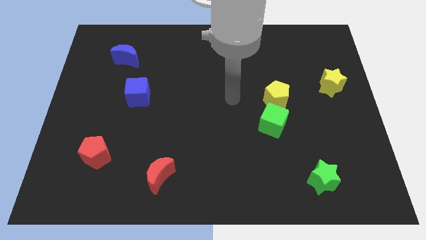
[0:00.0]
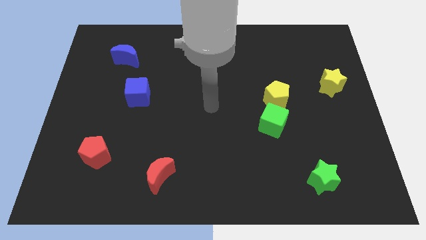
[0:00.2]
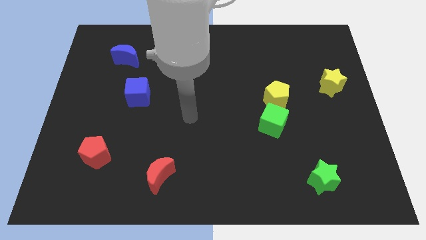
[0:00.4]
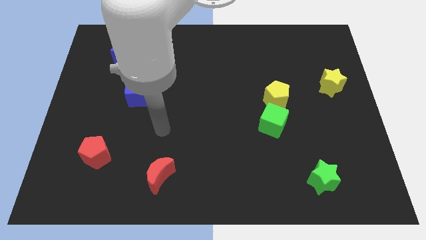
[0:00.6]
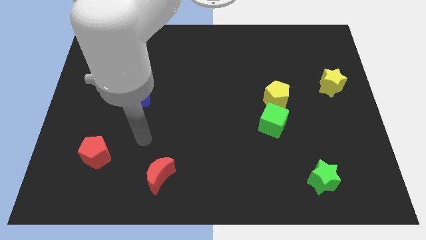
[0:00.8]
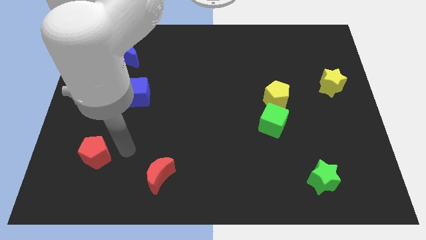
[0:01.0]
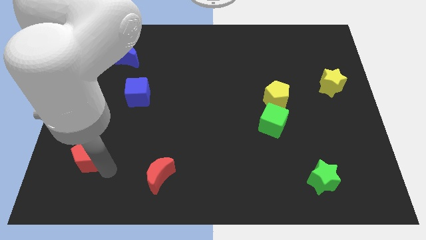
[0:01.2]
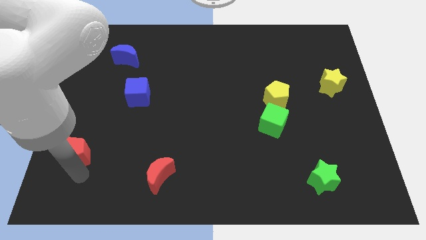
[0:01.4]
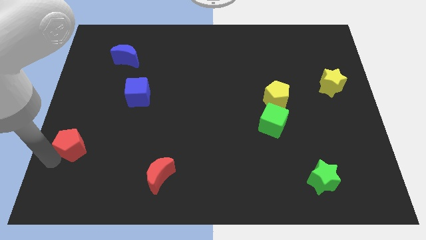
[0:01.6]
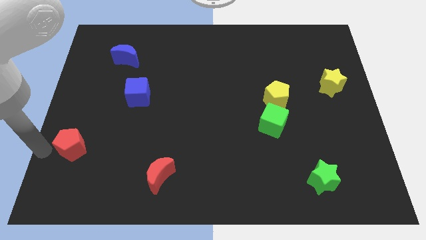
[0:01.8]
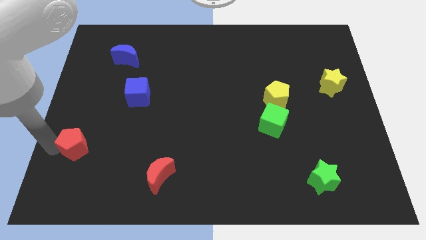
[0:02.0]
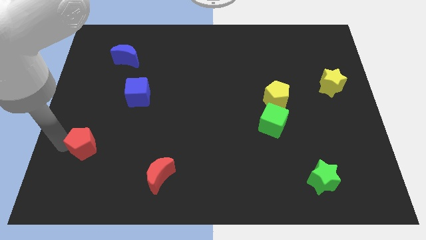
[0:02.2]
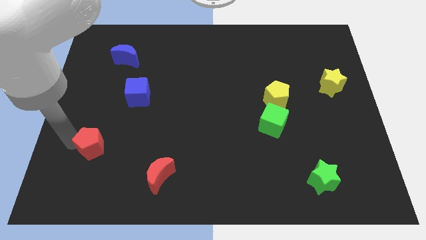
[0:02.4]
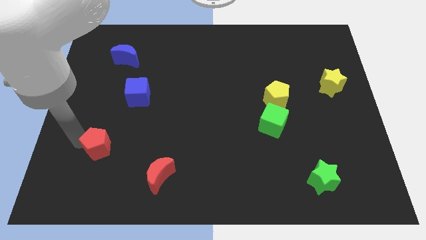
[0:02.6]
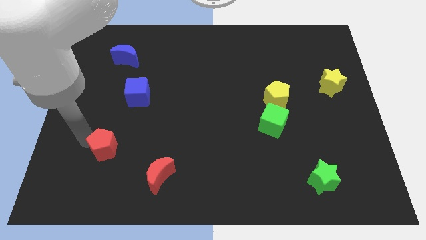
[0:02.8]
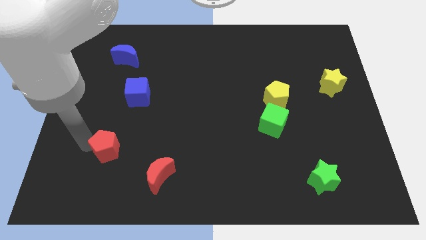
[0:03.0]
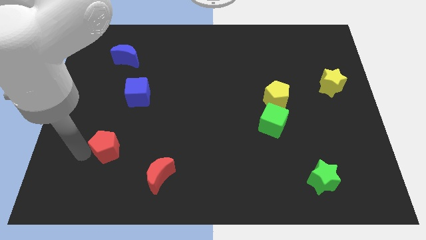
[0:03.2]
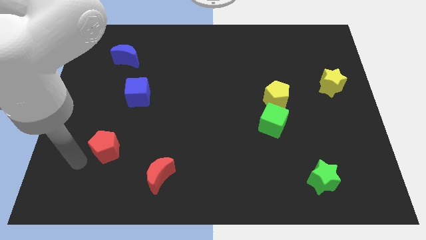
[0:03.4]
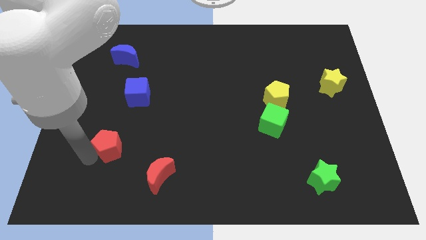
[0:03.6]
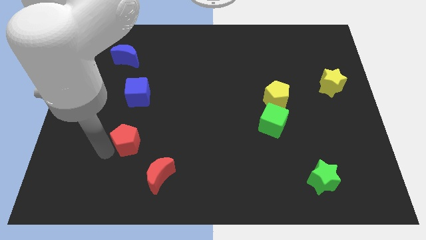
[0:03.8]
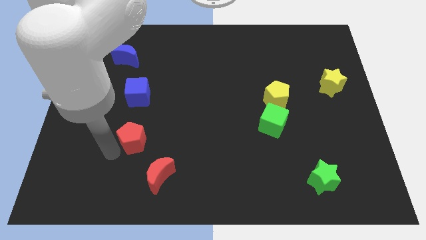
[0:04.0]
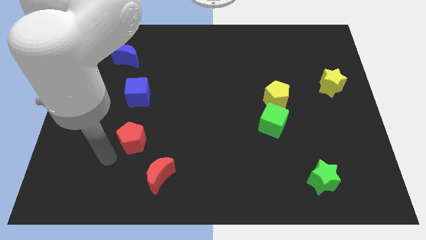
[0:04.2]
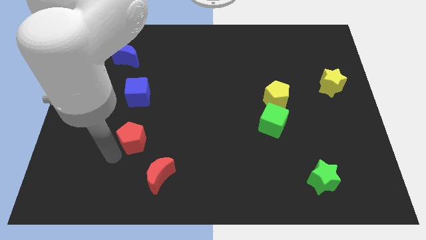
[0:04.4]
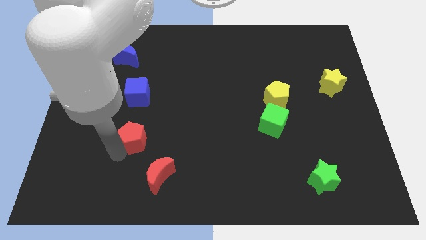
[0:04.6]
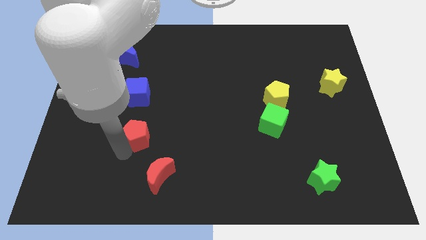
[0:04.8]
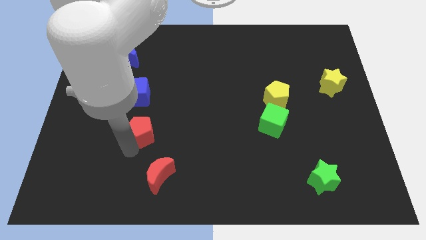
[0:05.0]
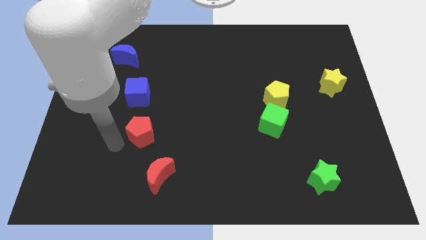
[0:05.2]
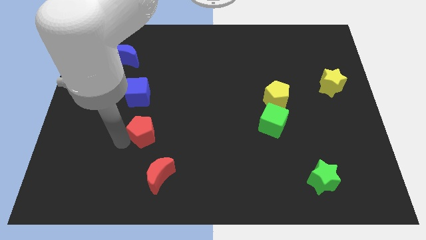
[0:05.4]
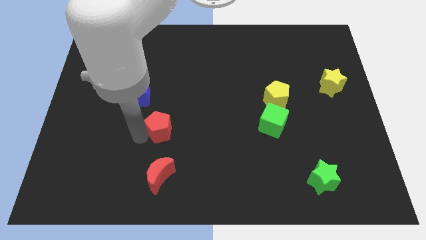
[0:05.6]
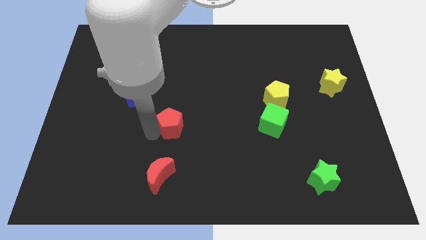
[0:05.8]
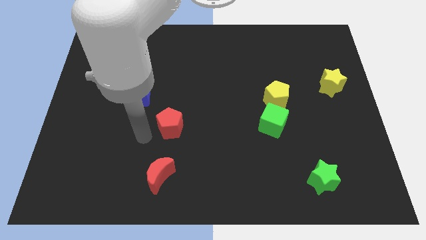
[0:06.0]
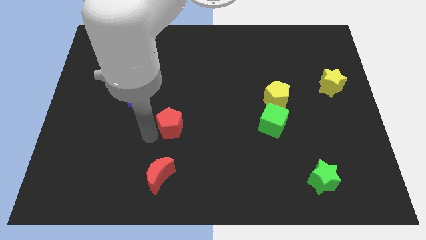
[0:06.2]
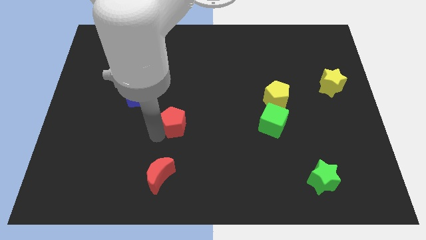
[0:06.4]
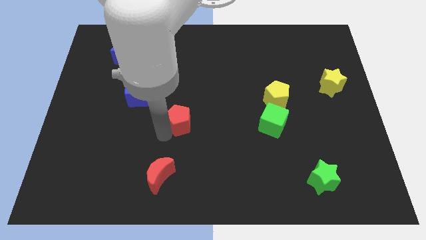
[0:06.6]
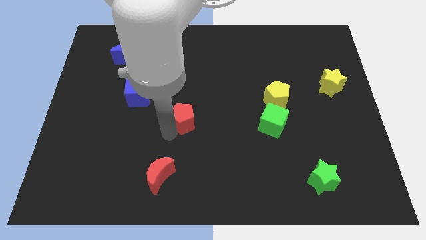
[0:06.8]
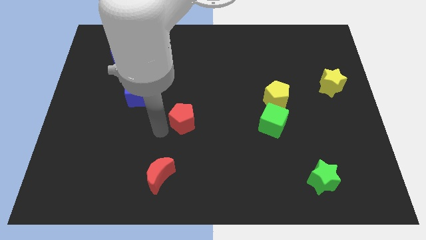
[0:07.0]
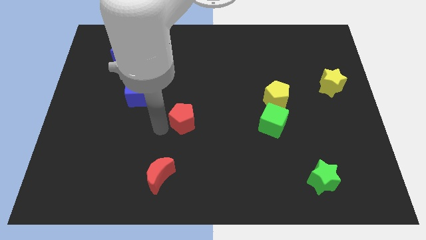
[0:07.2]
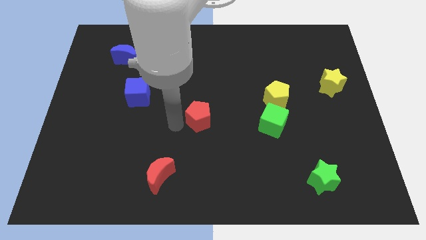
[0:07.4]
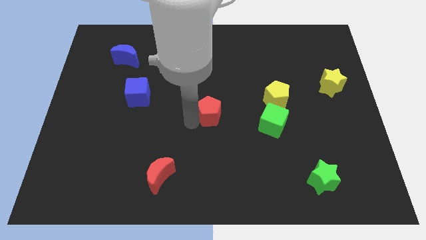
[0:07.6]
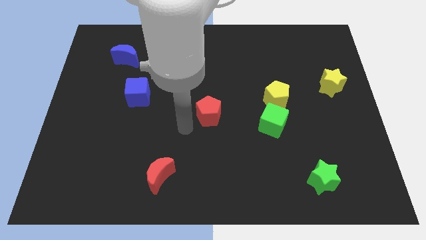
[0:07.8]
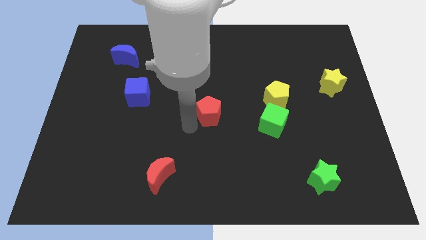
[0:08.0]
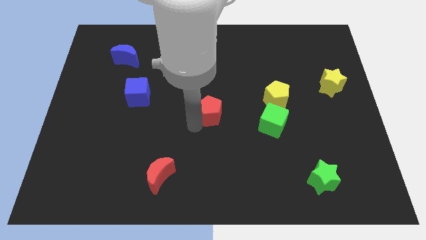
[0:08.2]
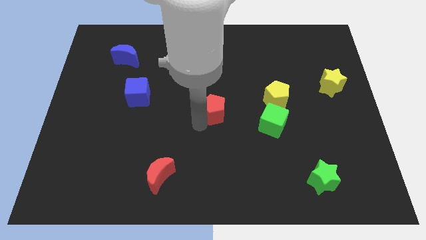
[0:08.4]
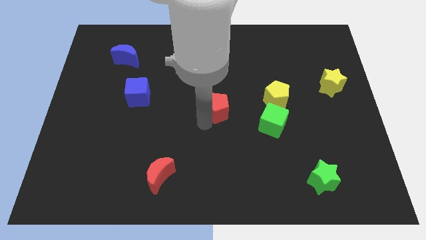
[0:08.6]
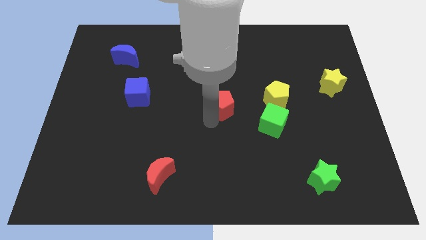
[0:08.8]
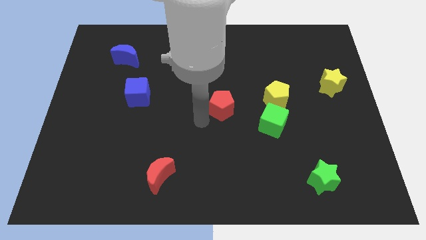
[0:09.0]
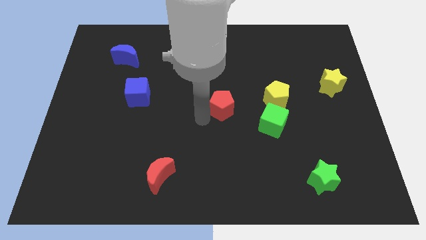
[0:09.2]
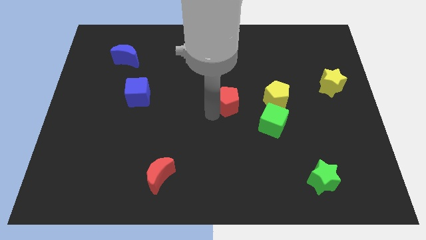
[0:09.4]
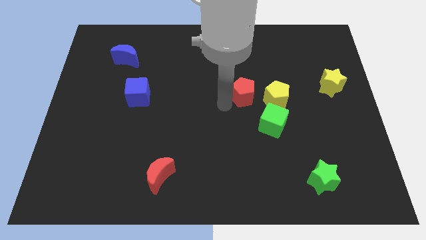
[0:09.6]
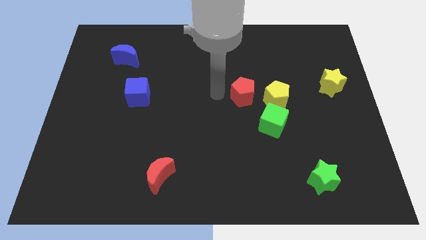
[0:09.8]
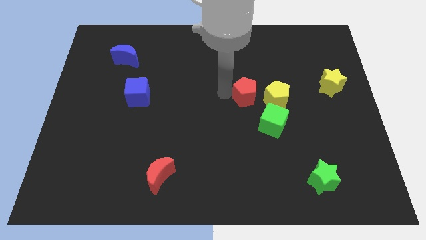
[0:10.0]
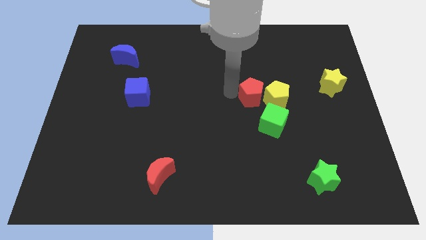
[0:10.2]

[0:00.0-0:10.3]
slide the red pentagon next to the yellow pentagon

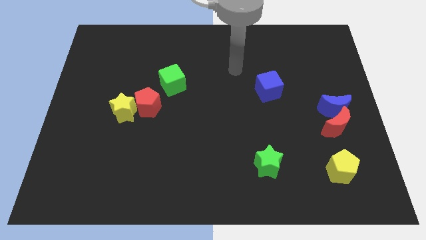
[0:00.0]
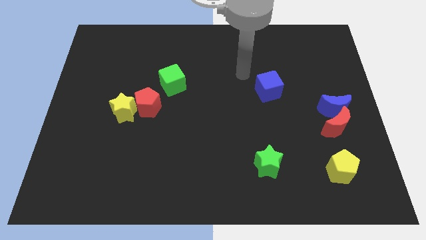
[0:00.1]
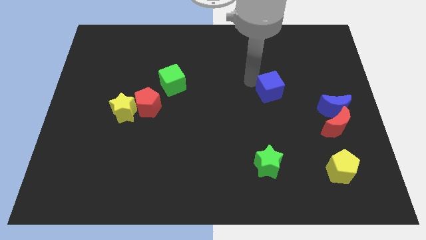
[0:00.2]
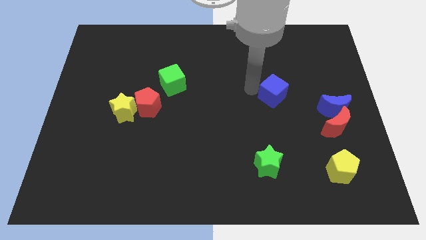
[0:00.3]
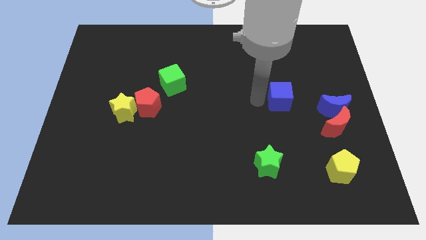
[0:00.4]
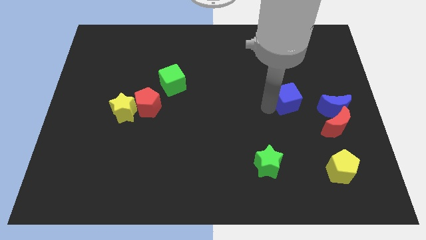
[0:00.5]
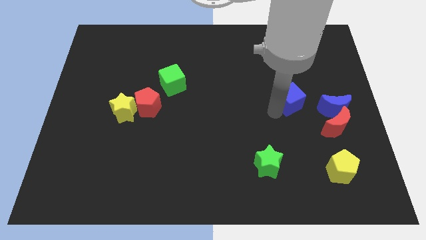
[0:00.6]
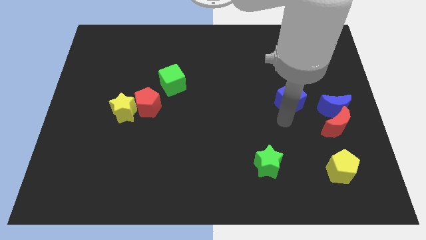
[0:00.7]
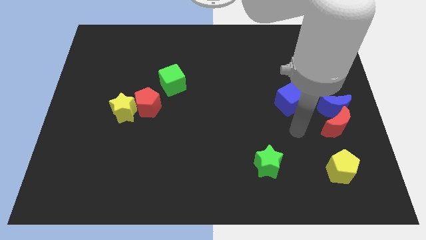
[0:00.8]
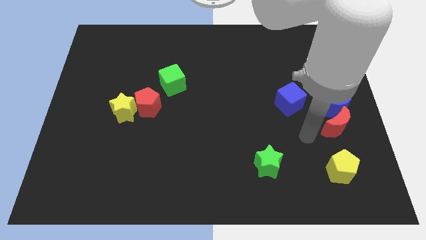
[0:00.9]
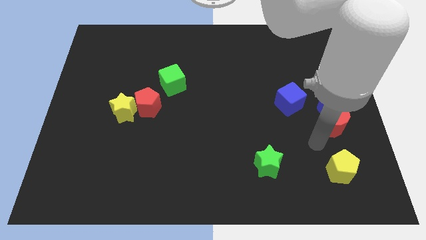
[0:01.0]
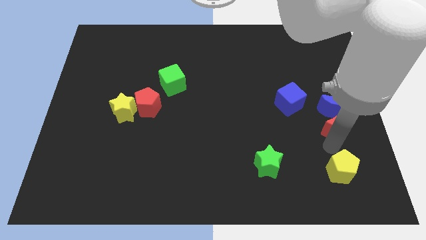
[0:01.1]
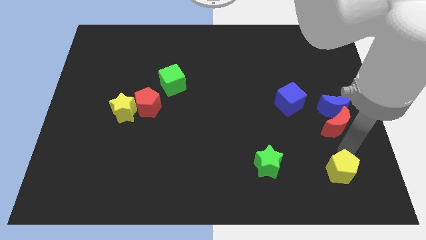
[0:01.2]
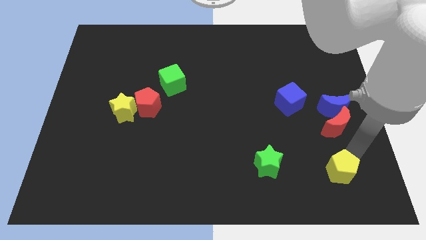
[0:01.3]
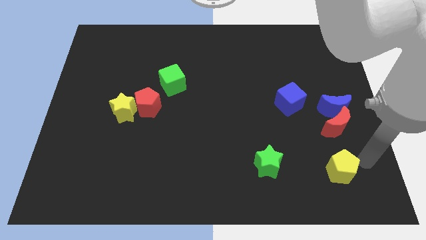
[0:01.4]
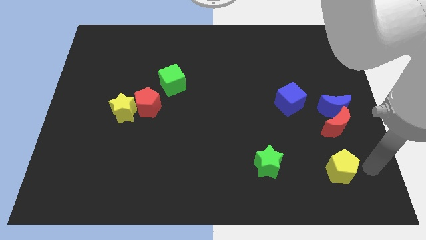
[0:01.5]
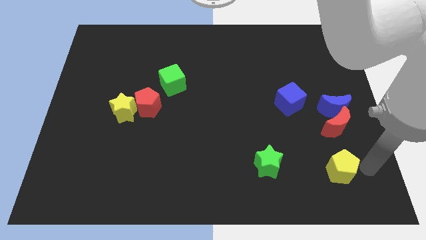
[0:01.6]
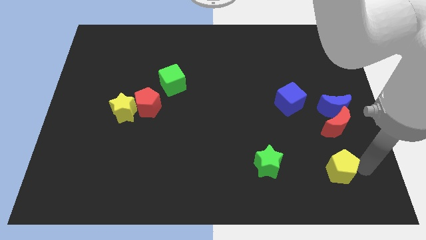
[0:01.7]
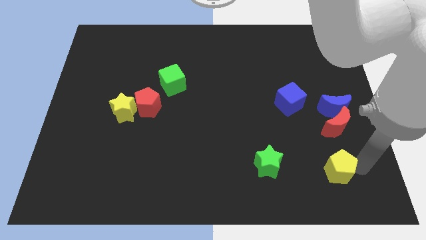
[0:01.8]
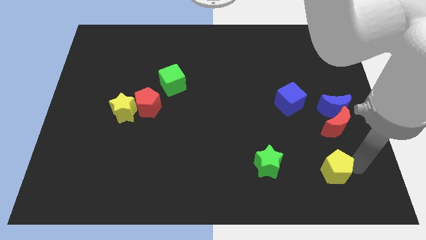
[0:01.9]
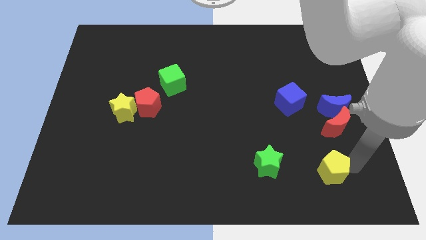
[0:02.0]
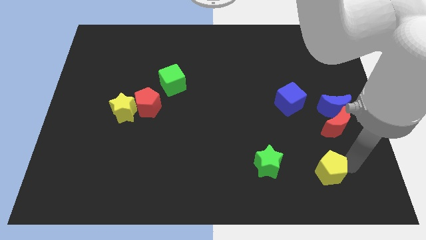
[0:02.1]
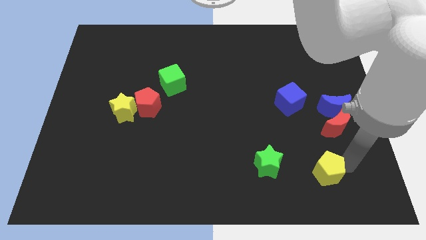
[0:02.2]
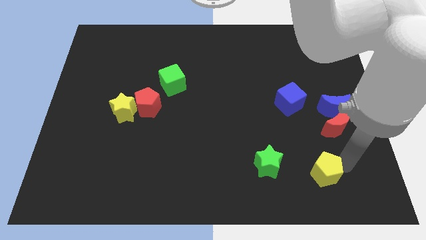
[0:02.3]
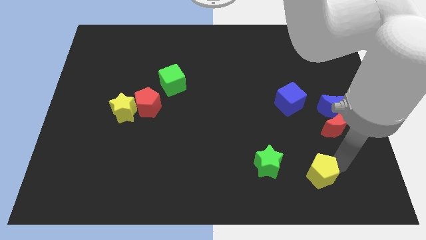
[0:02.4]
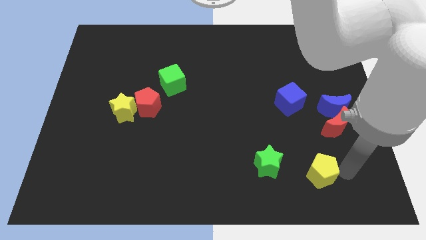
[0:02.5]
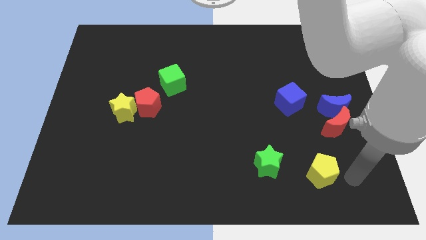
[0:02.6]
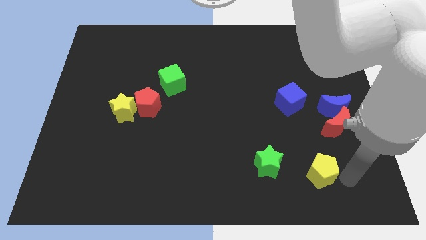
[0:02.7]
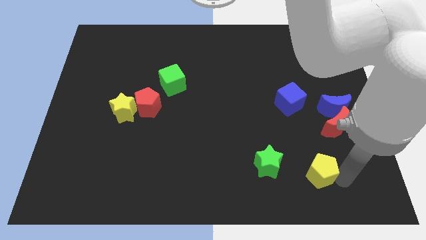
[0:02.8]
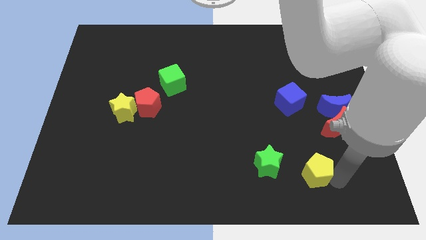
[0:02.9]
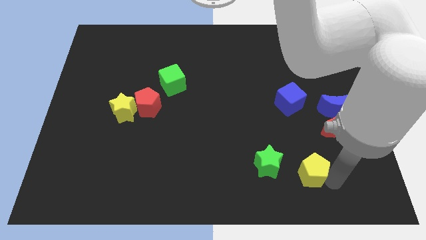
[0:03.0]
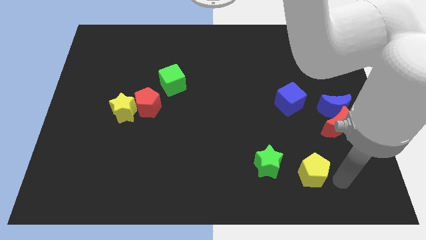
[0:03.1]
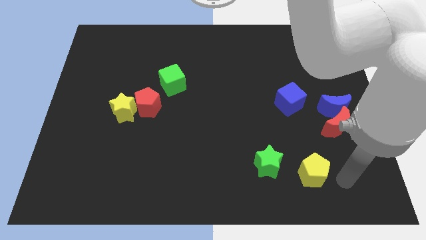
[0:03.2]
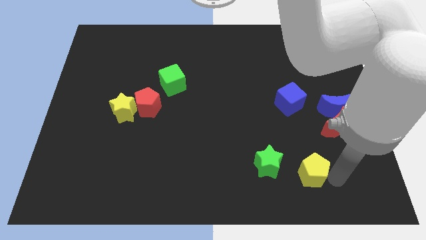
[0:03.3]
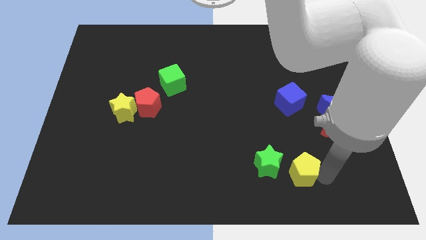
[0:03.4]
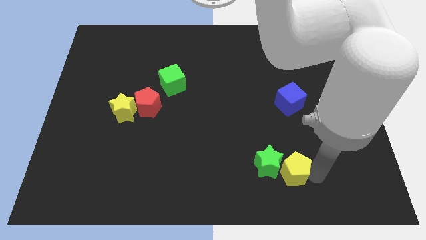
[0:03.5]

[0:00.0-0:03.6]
push the yellow pentagon close to the green star
